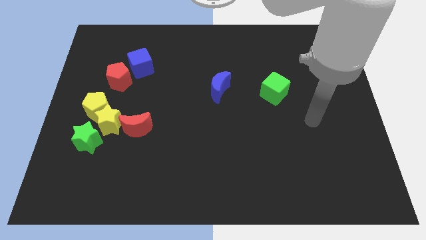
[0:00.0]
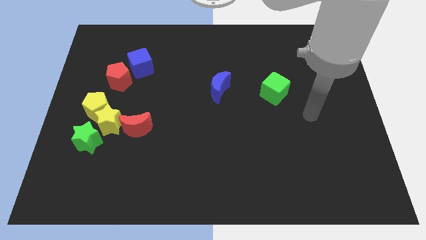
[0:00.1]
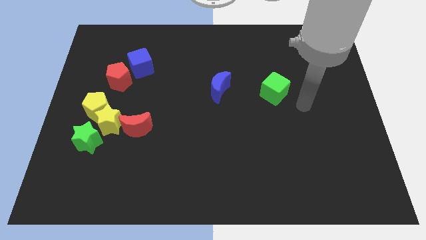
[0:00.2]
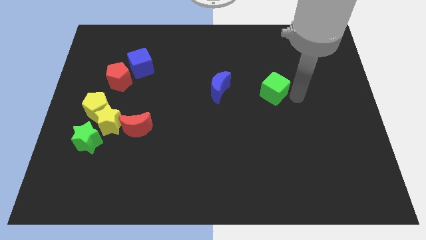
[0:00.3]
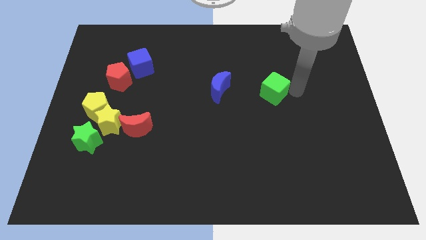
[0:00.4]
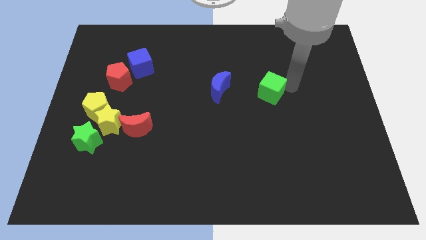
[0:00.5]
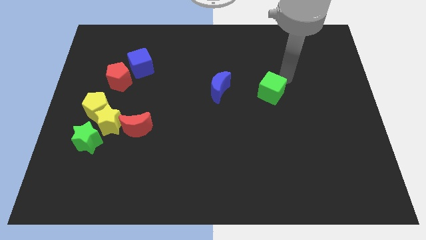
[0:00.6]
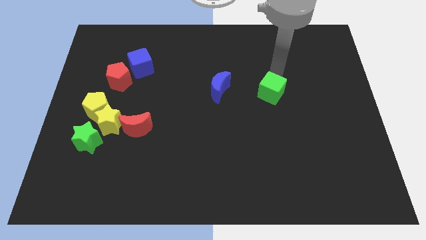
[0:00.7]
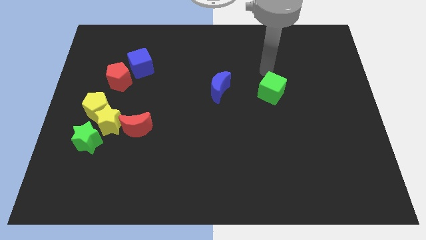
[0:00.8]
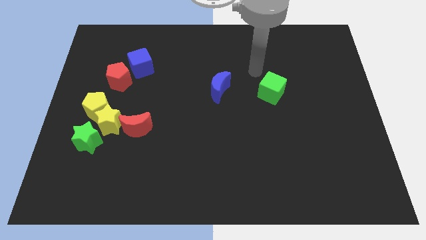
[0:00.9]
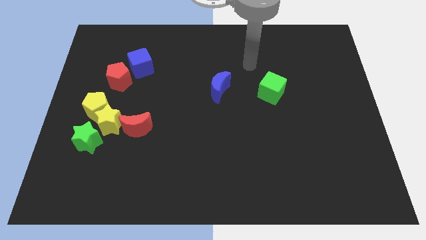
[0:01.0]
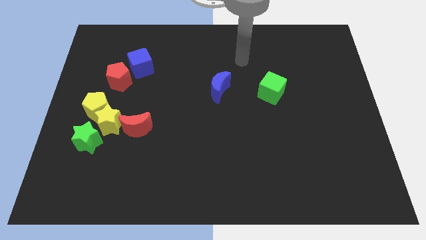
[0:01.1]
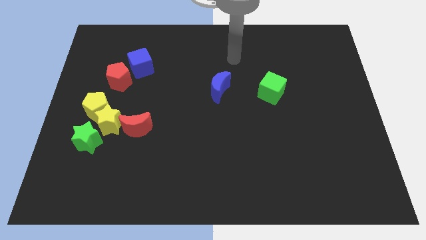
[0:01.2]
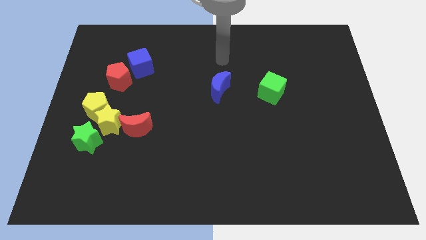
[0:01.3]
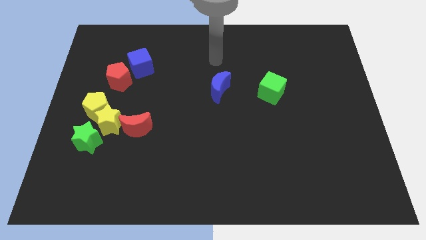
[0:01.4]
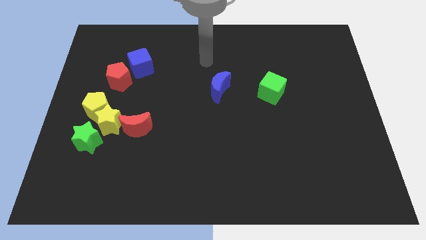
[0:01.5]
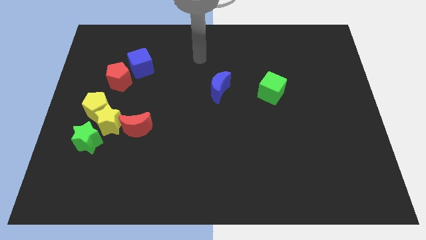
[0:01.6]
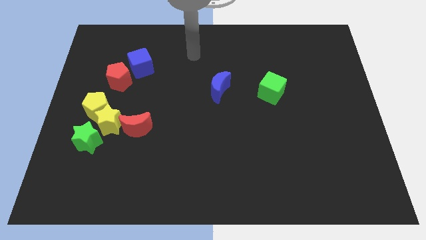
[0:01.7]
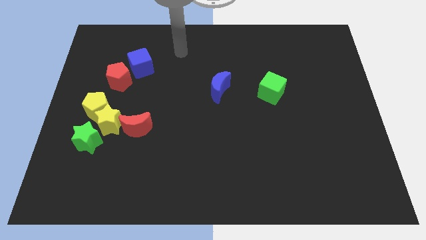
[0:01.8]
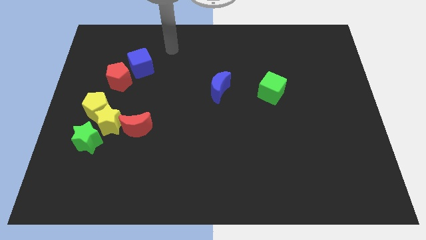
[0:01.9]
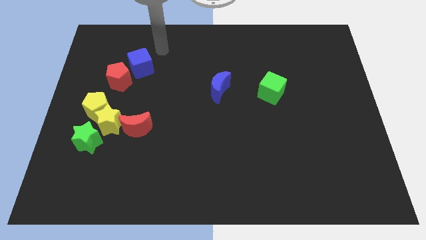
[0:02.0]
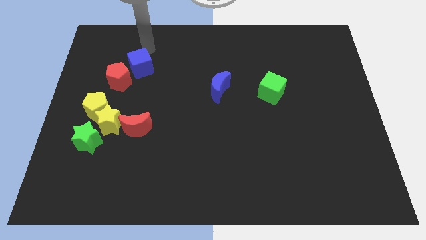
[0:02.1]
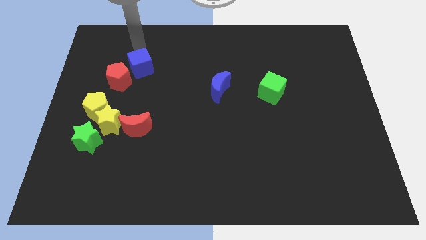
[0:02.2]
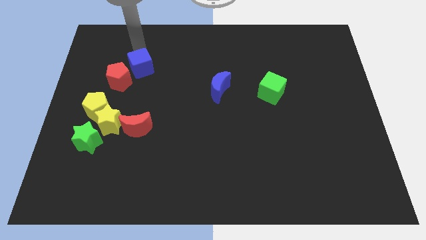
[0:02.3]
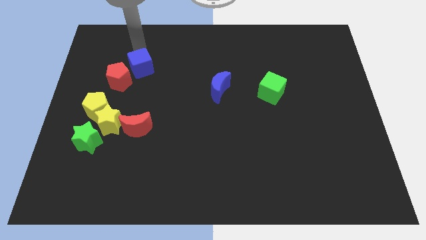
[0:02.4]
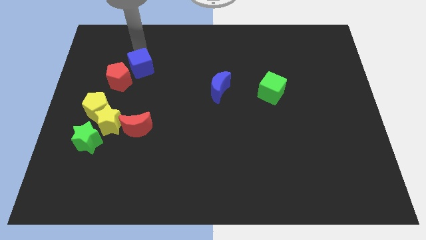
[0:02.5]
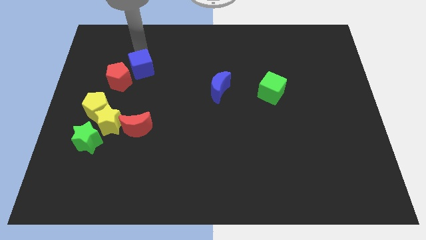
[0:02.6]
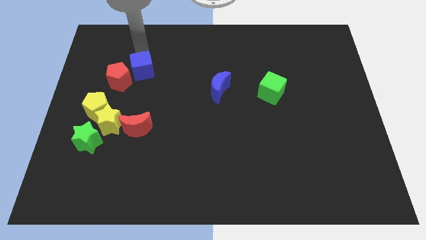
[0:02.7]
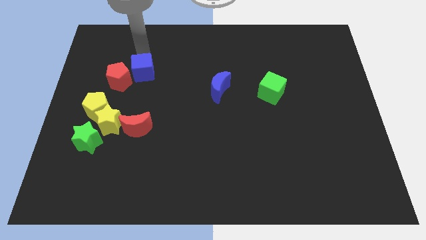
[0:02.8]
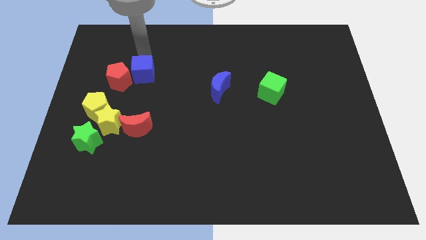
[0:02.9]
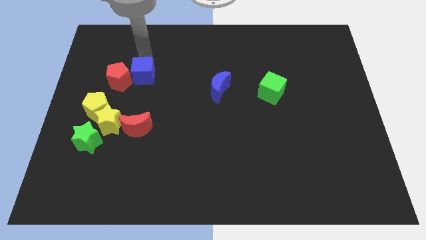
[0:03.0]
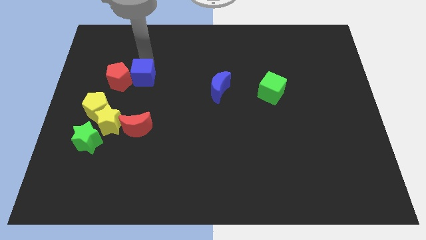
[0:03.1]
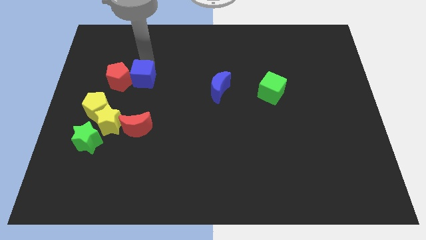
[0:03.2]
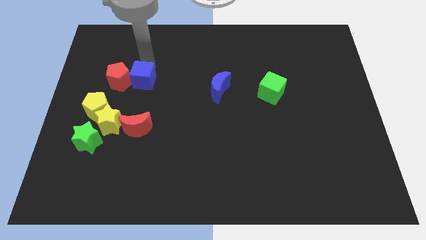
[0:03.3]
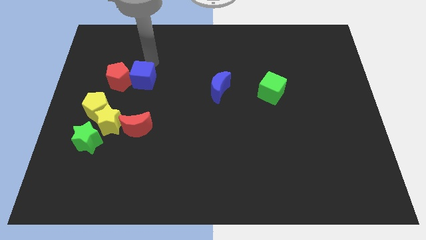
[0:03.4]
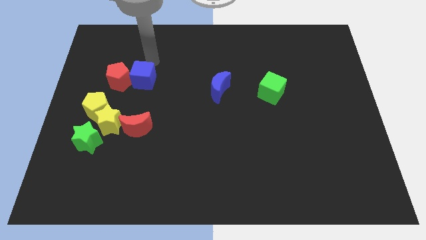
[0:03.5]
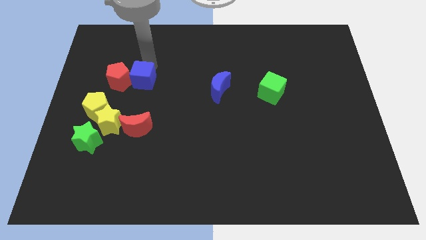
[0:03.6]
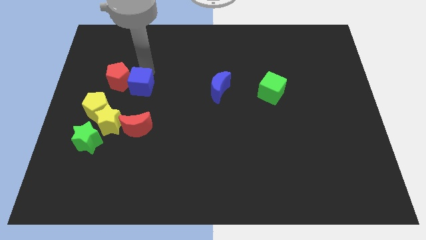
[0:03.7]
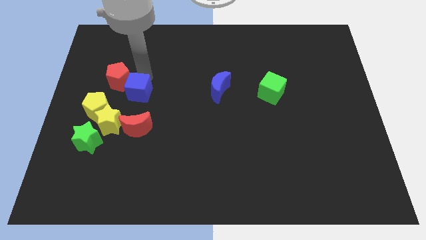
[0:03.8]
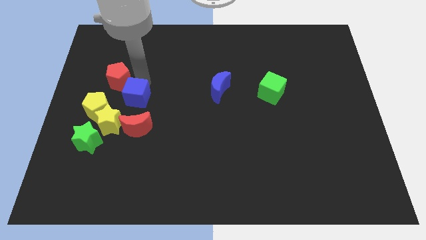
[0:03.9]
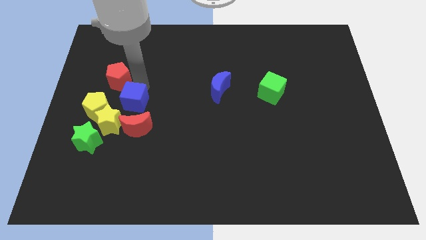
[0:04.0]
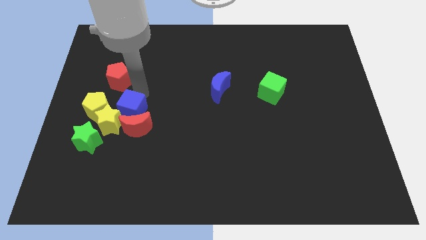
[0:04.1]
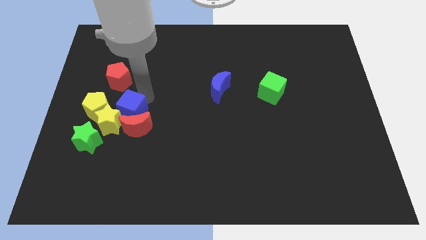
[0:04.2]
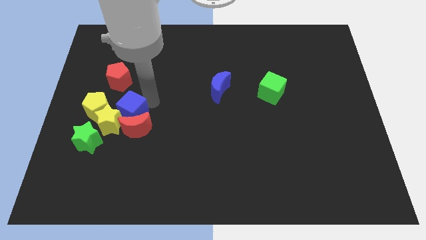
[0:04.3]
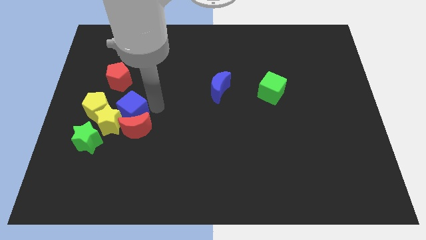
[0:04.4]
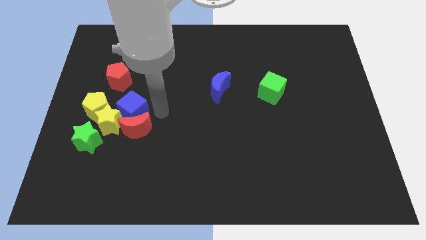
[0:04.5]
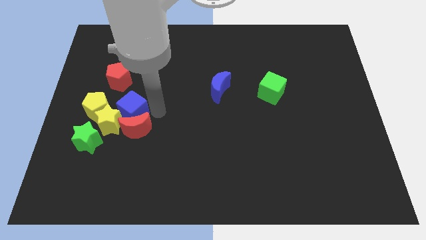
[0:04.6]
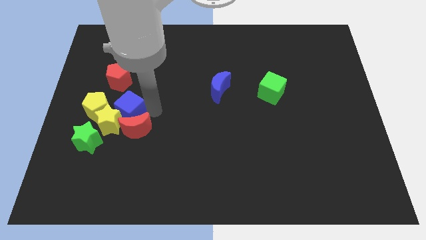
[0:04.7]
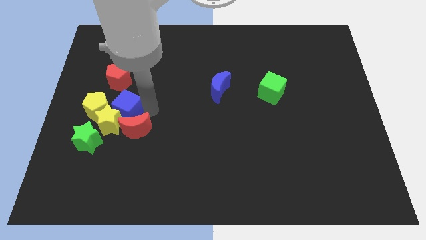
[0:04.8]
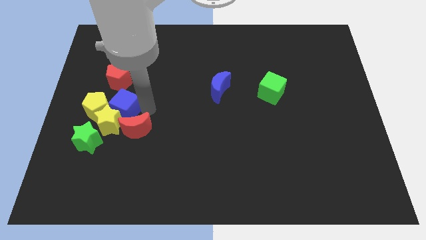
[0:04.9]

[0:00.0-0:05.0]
slide the blue cube to the yellow pentagon

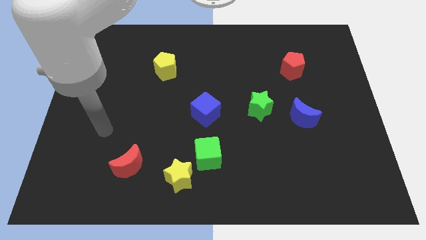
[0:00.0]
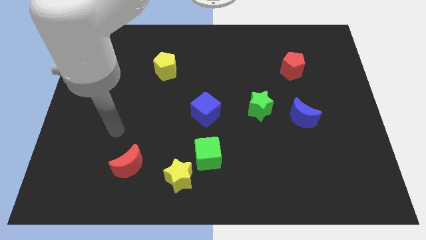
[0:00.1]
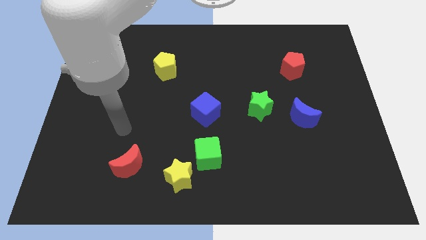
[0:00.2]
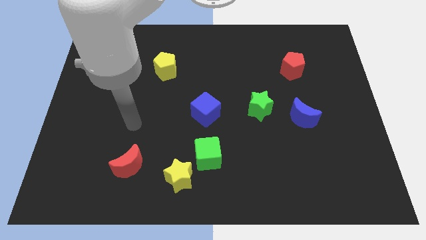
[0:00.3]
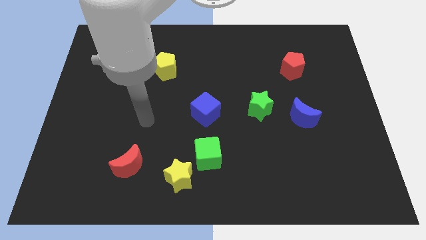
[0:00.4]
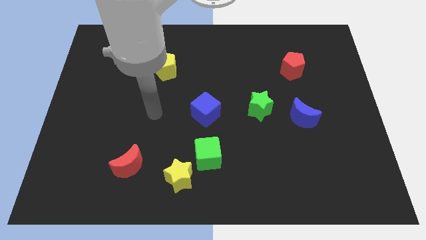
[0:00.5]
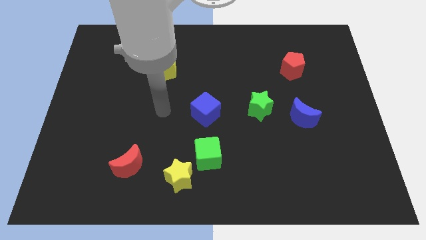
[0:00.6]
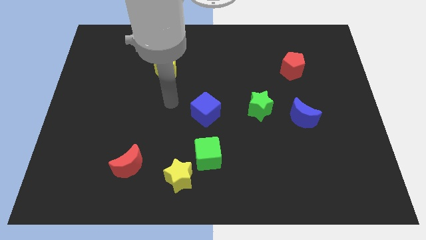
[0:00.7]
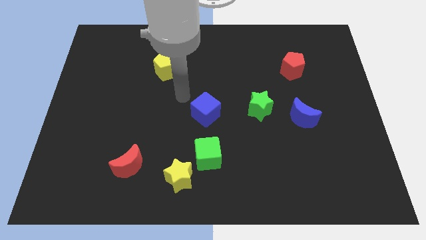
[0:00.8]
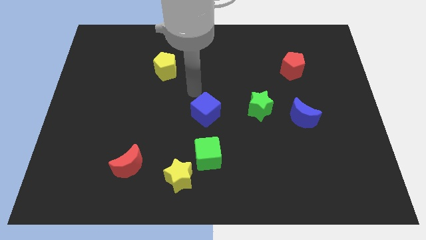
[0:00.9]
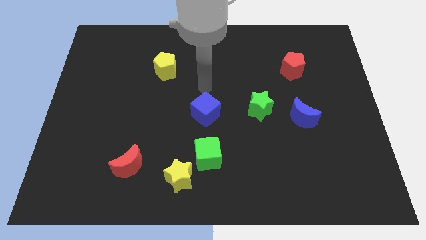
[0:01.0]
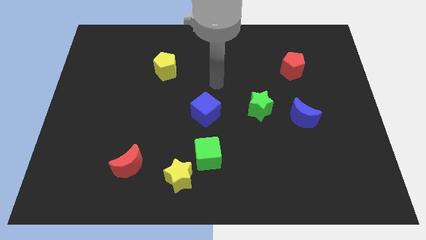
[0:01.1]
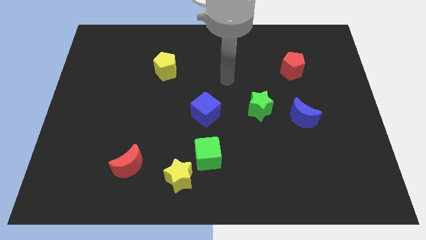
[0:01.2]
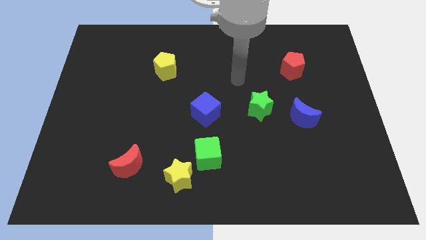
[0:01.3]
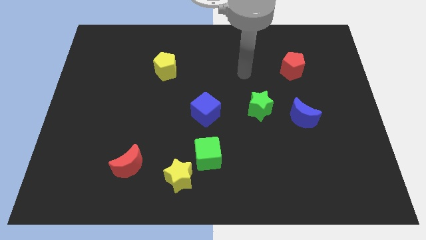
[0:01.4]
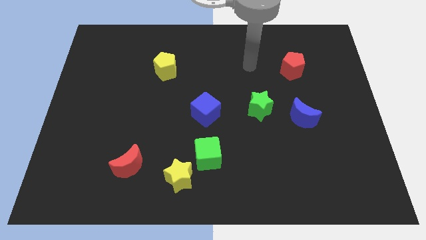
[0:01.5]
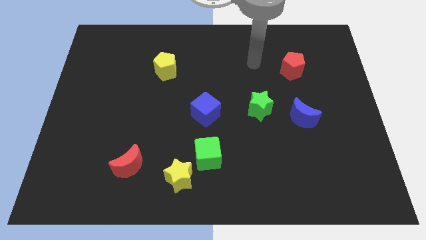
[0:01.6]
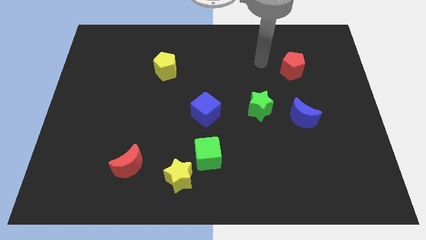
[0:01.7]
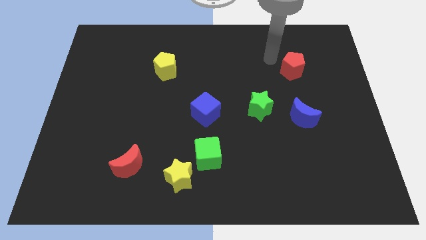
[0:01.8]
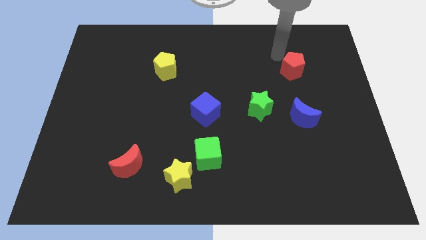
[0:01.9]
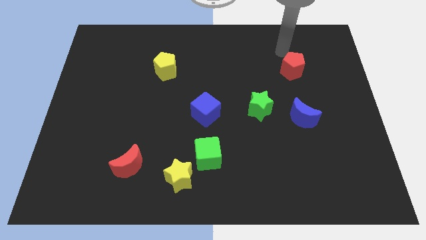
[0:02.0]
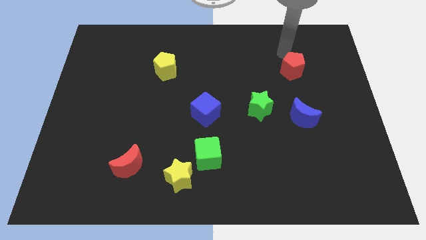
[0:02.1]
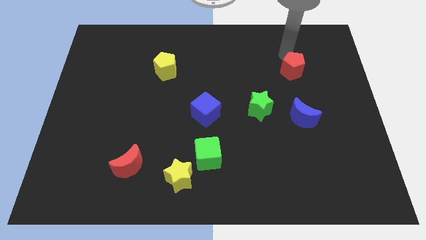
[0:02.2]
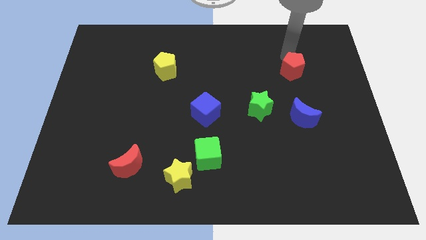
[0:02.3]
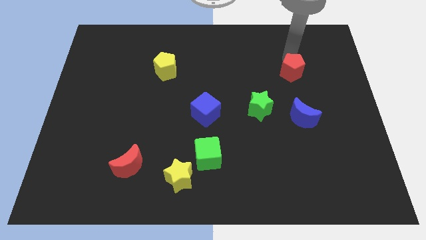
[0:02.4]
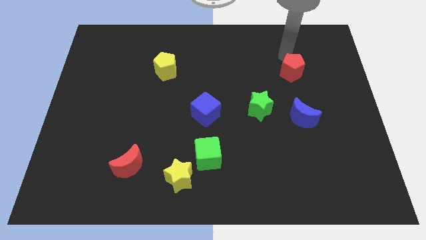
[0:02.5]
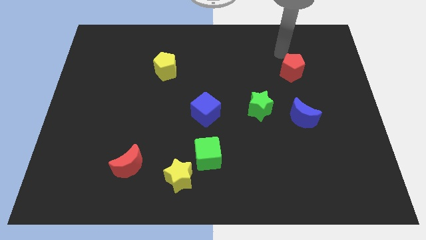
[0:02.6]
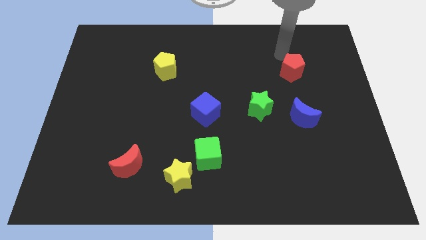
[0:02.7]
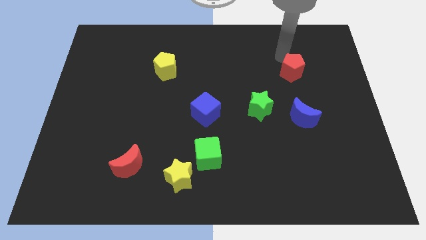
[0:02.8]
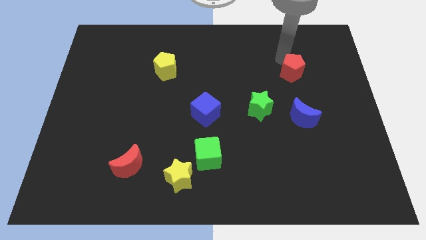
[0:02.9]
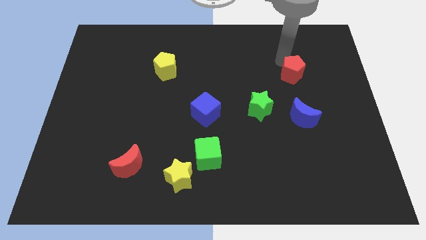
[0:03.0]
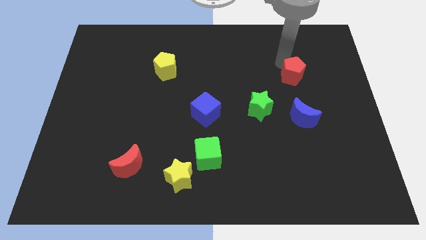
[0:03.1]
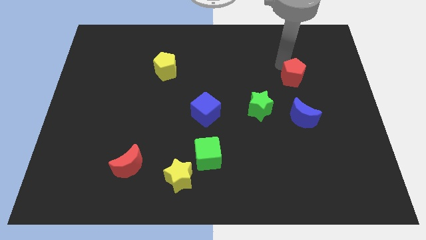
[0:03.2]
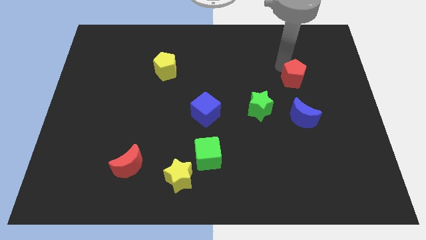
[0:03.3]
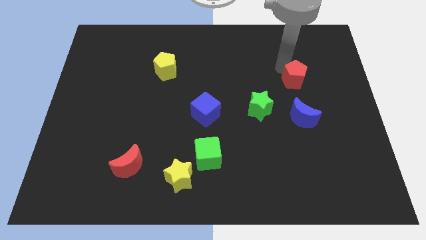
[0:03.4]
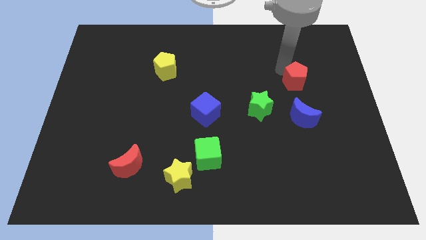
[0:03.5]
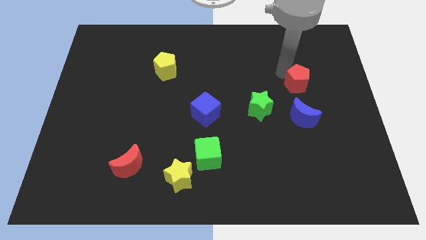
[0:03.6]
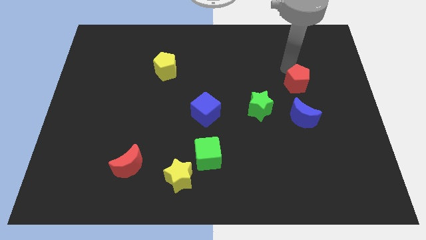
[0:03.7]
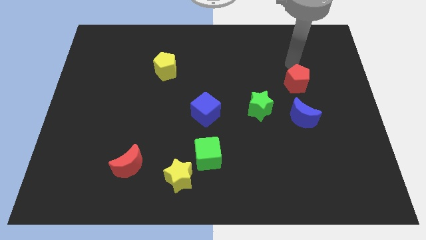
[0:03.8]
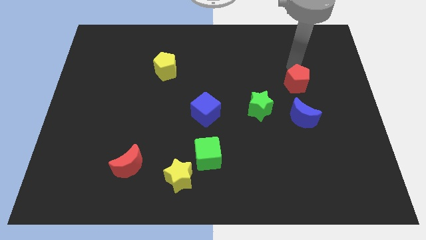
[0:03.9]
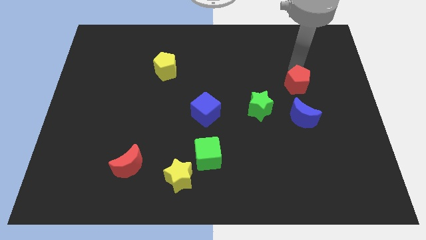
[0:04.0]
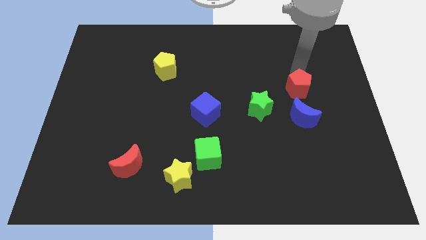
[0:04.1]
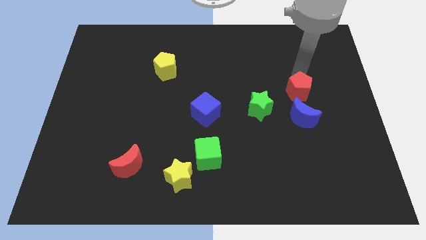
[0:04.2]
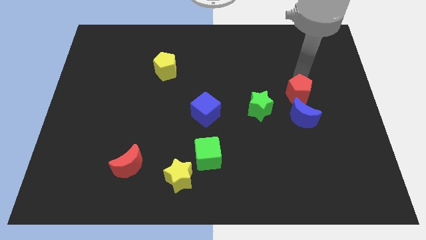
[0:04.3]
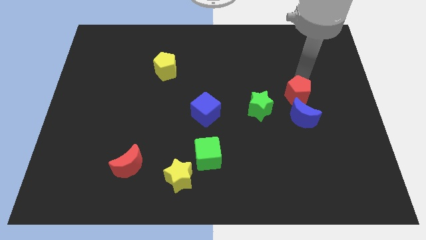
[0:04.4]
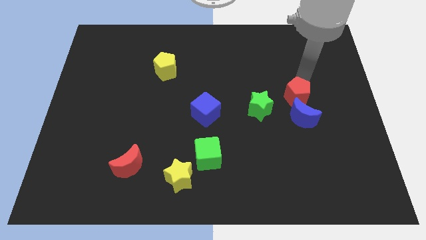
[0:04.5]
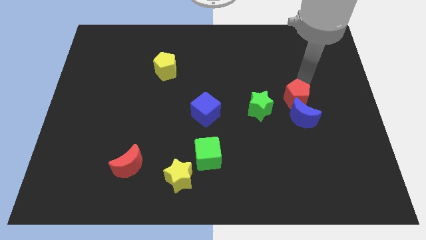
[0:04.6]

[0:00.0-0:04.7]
move the red pentagon close to the blue moon
